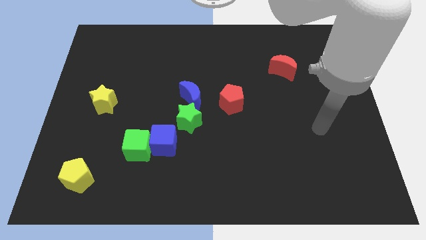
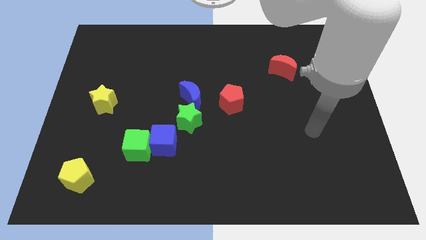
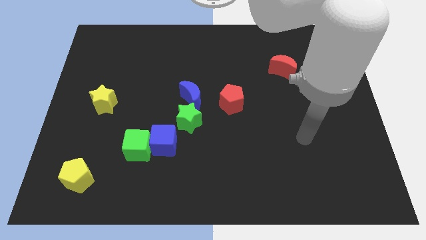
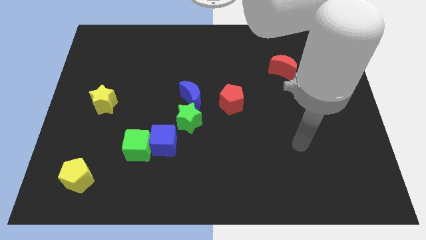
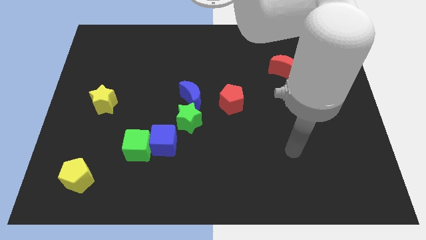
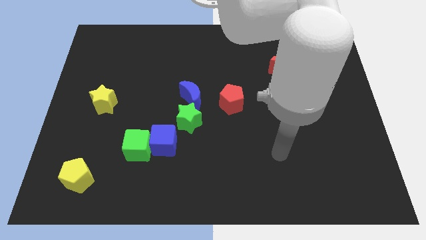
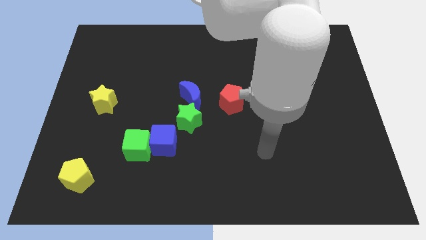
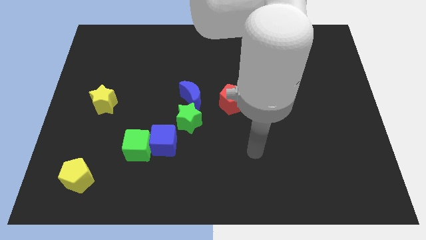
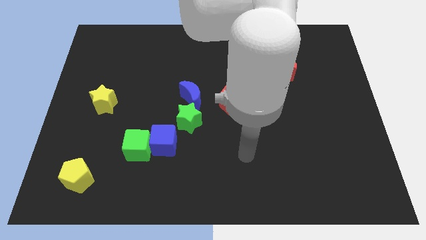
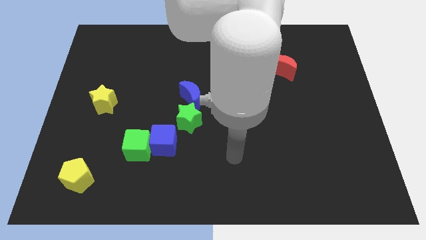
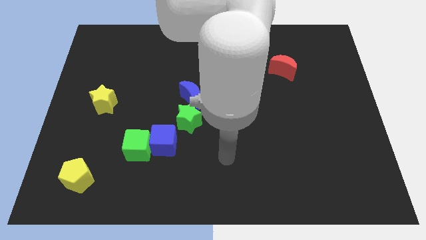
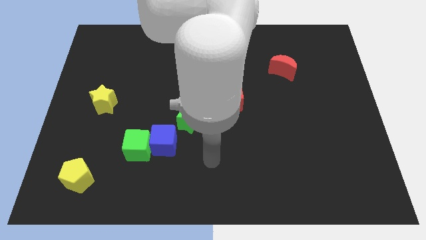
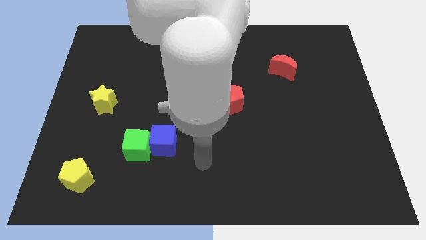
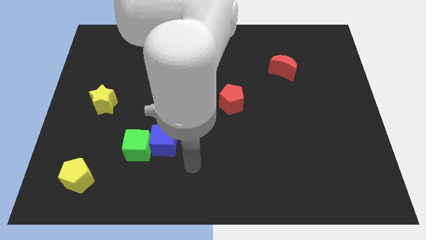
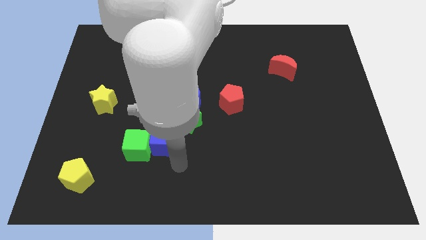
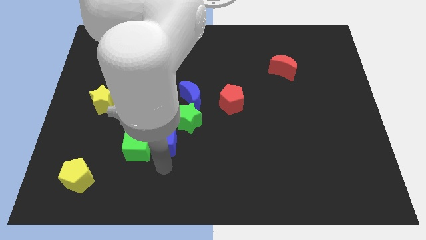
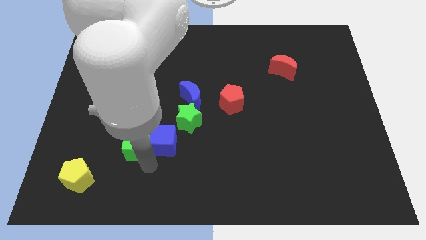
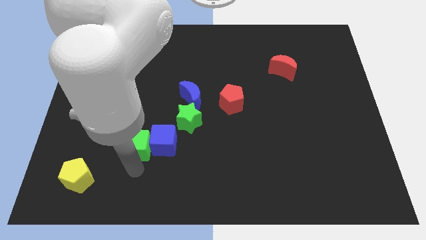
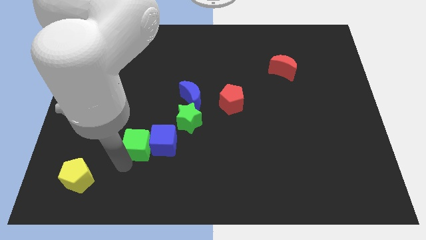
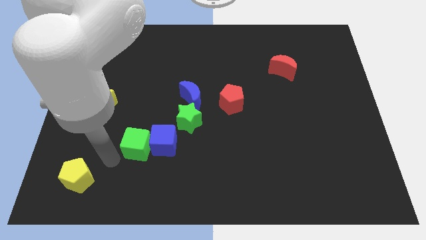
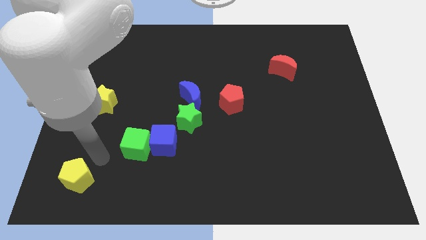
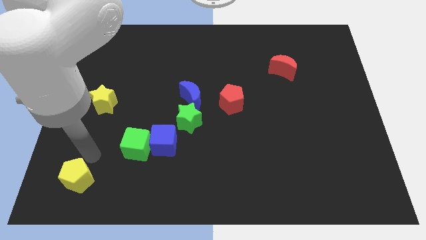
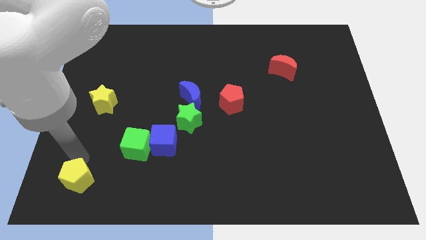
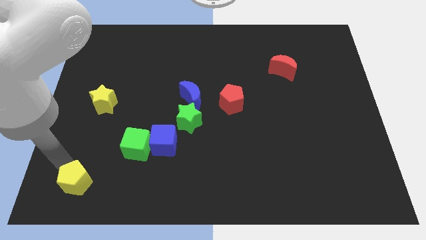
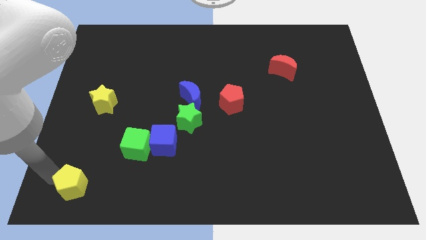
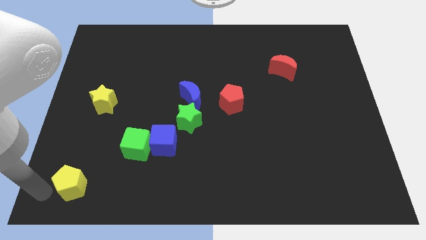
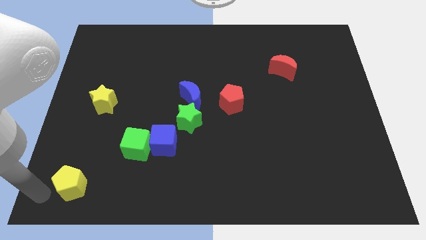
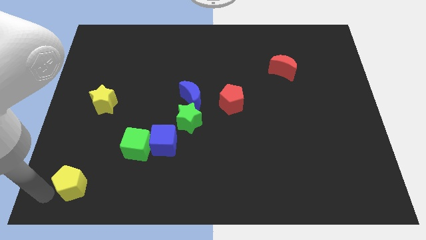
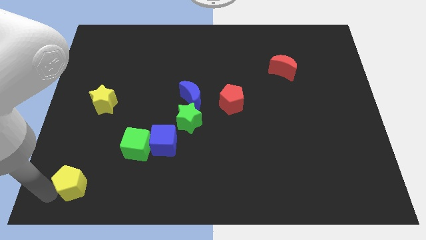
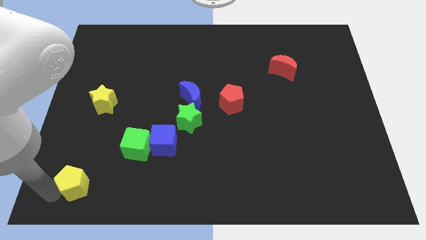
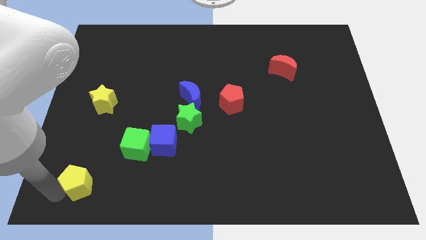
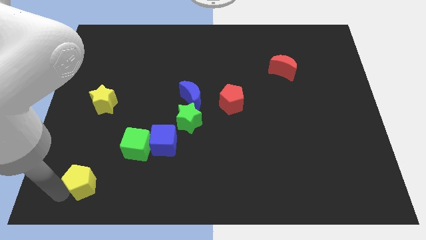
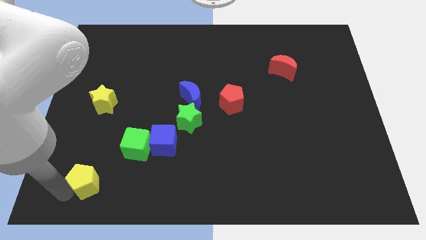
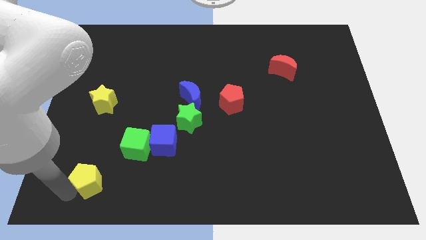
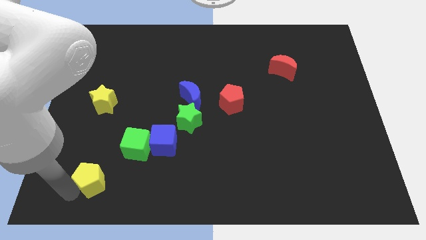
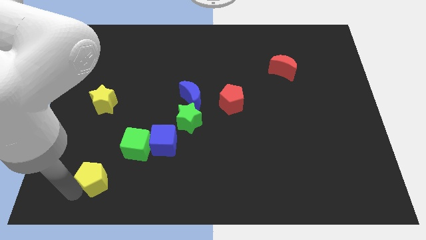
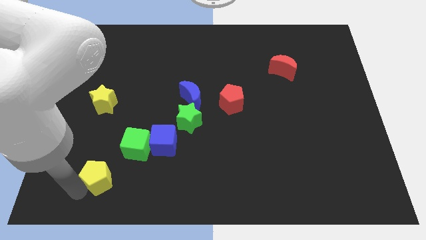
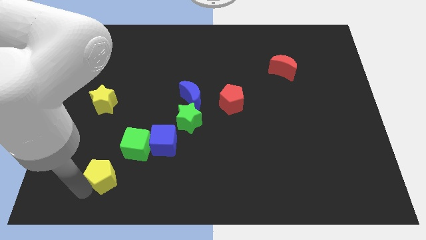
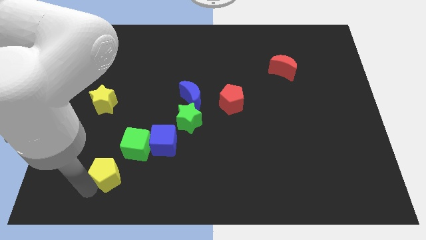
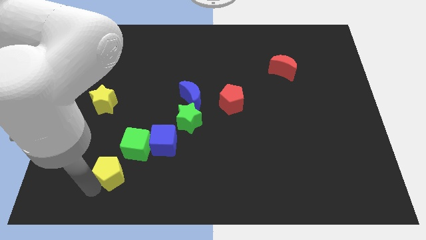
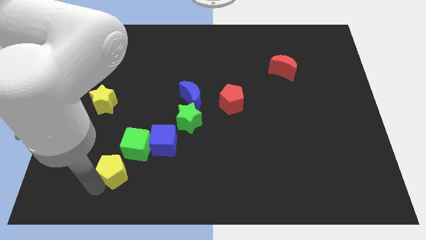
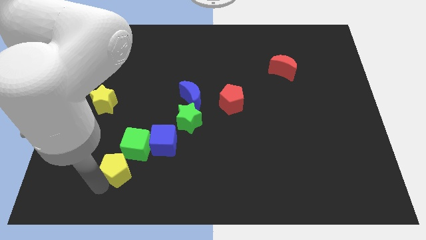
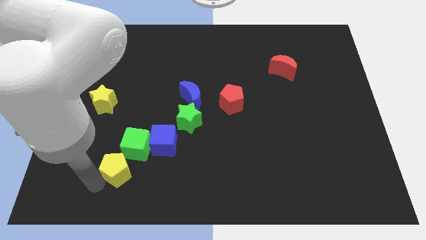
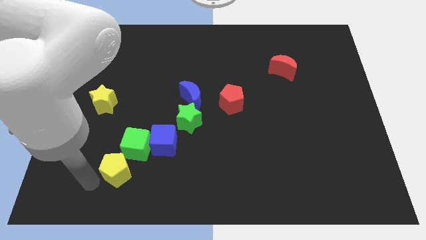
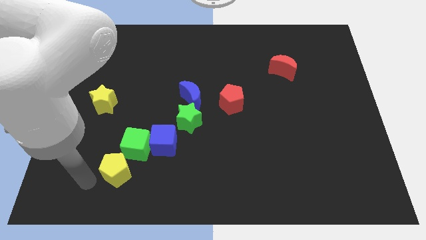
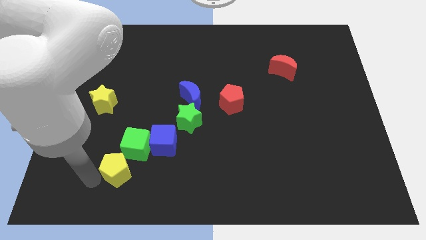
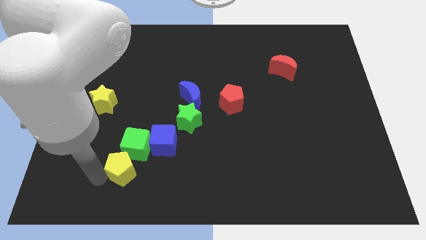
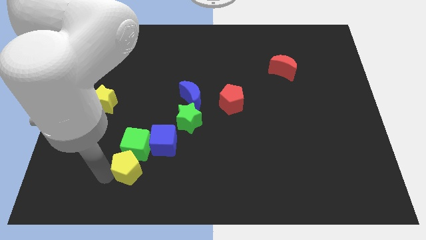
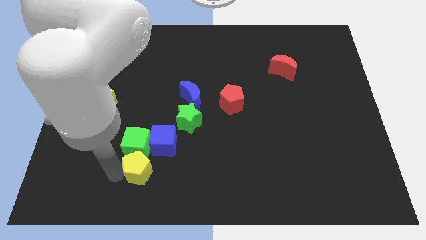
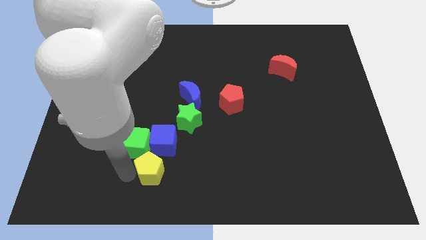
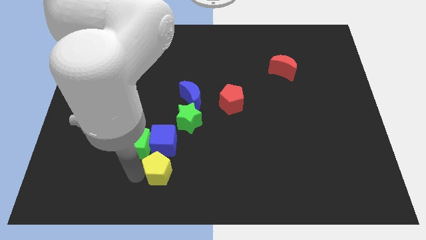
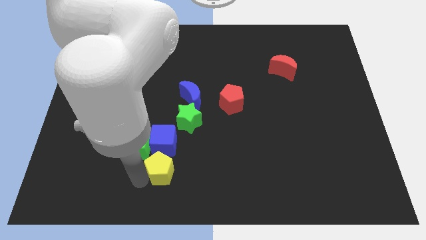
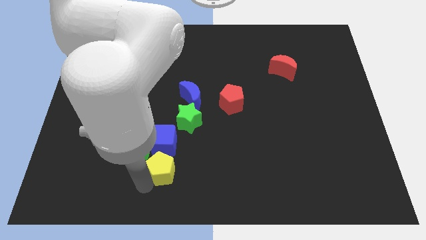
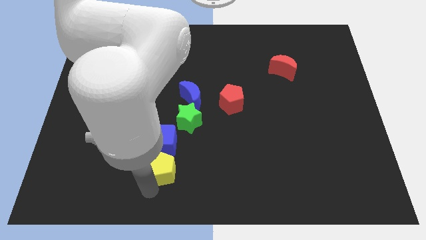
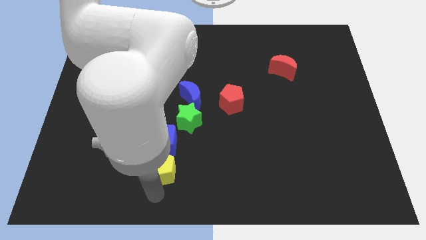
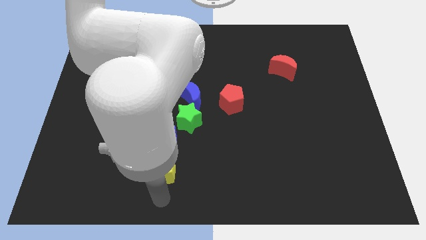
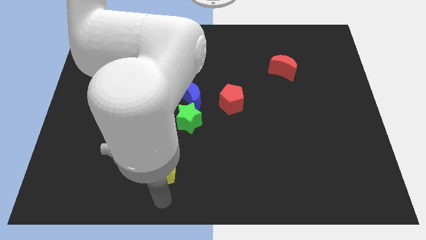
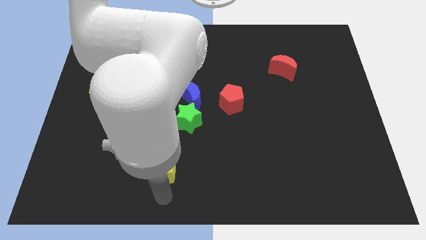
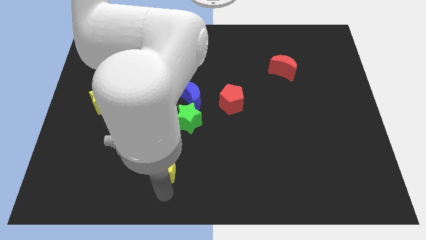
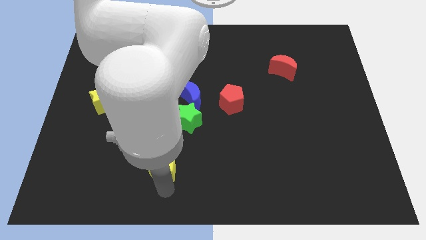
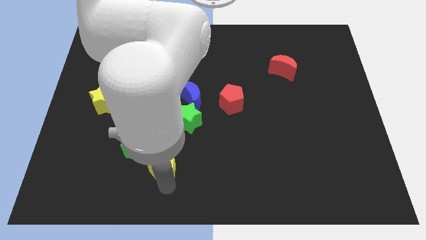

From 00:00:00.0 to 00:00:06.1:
slide the yellow pentagon close to the blue cube

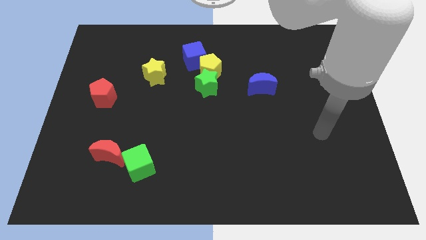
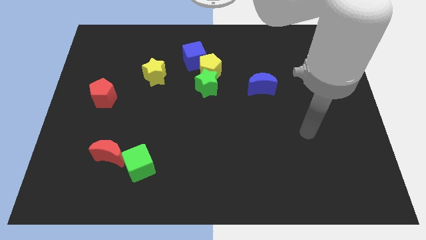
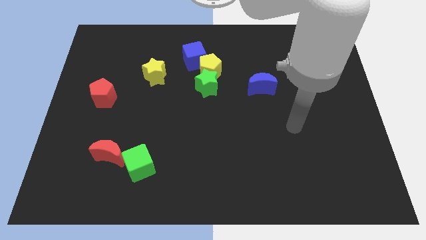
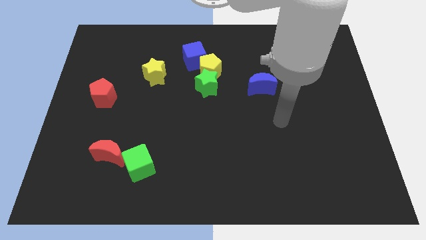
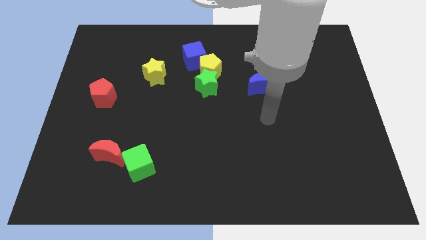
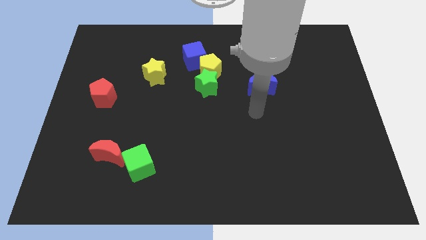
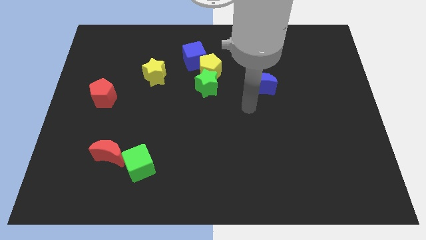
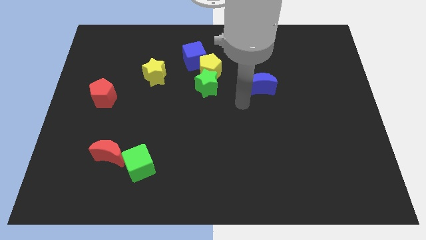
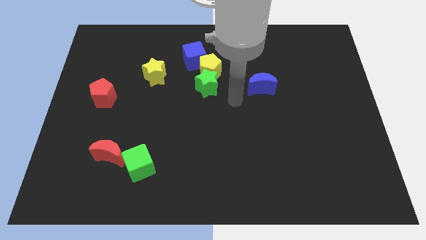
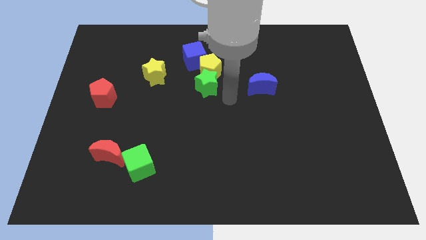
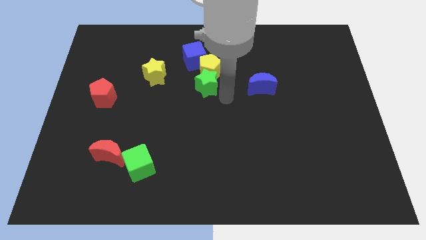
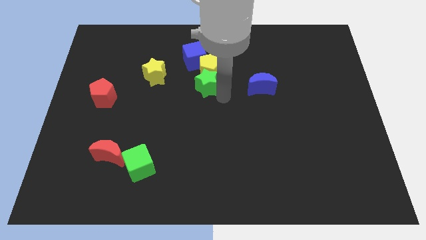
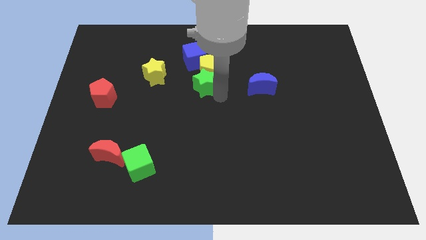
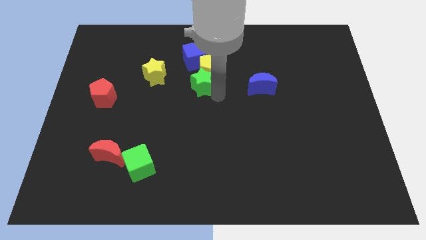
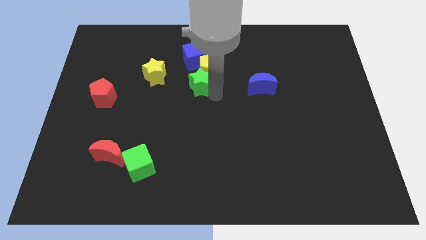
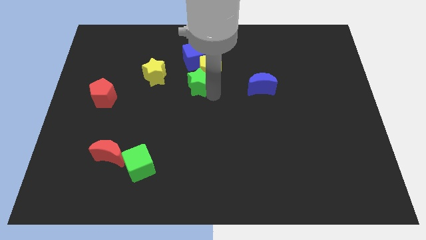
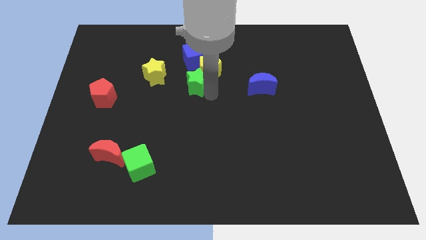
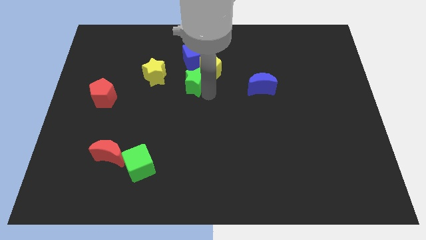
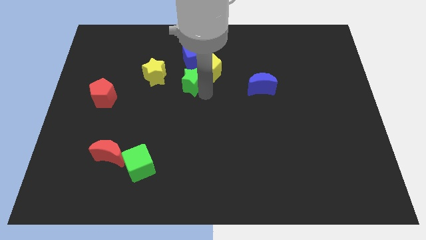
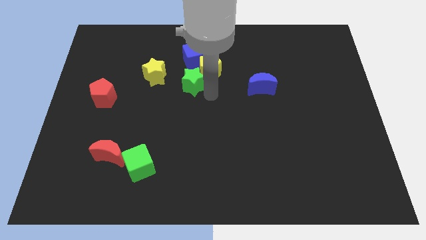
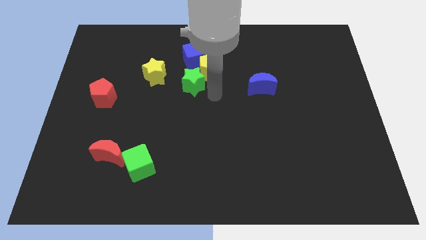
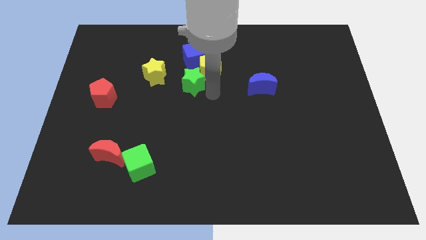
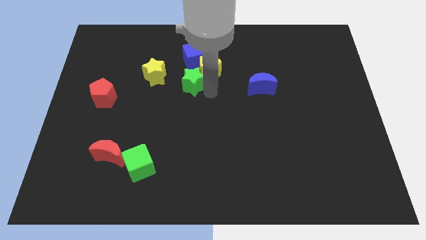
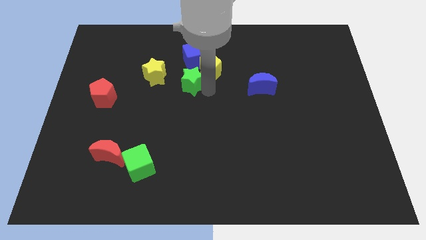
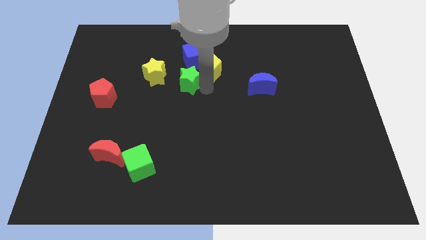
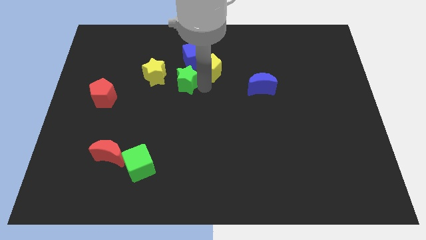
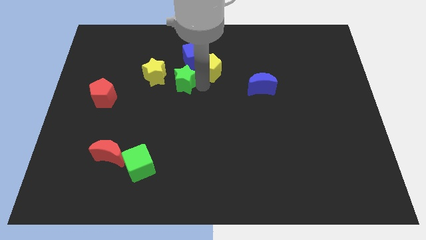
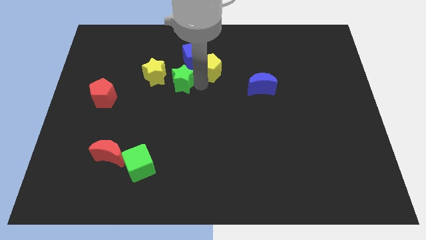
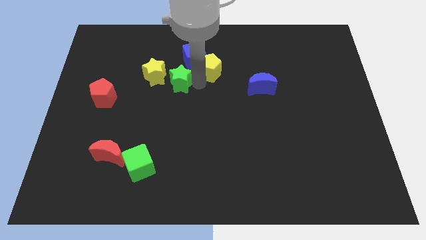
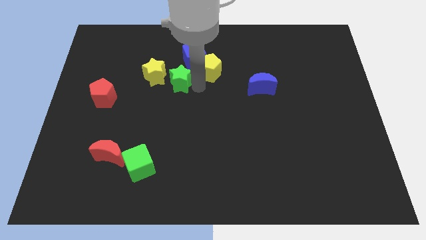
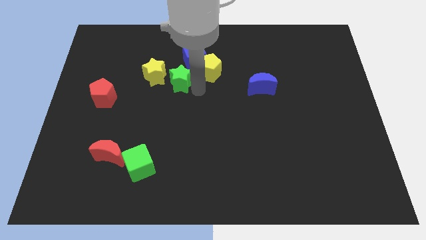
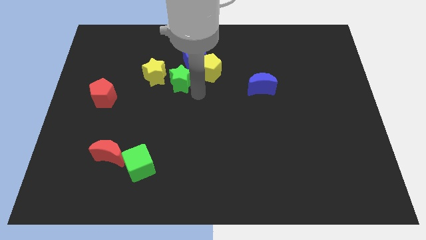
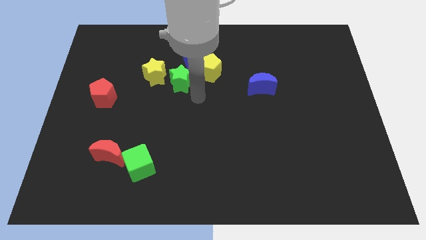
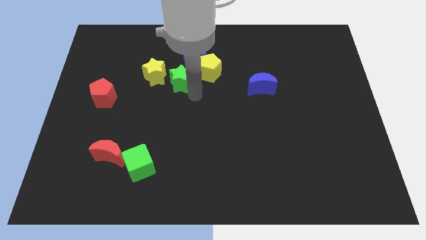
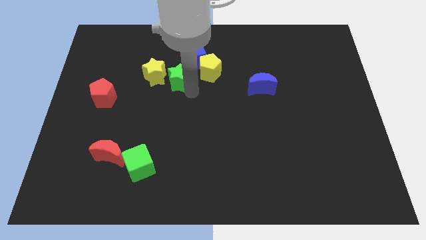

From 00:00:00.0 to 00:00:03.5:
slide the green star next to the yellow star
